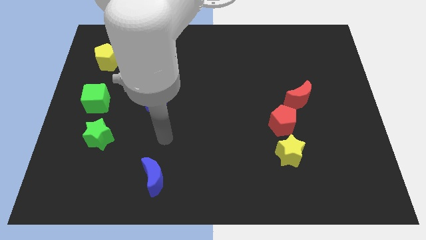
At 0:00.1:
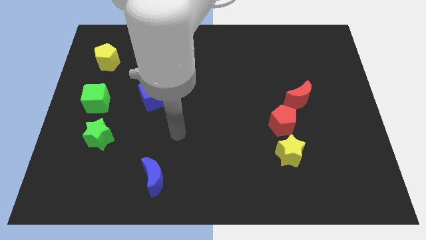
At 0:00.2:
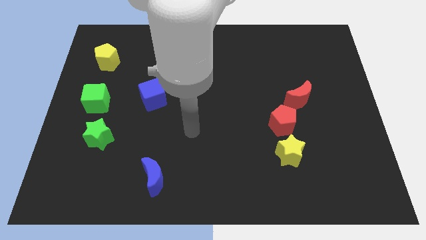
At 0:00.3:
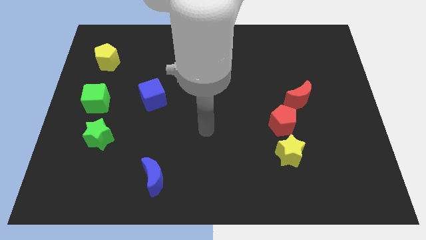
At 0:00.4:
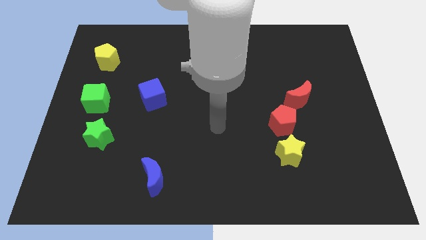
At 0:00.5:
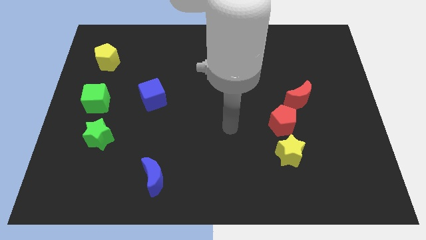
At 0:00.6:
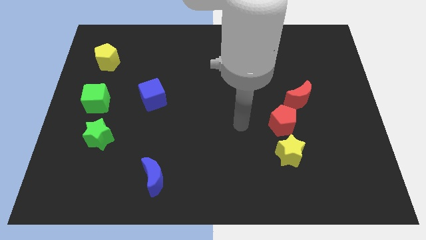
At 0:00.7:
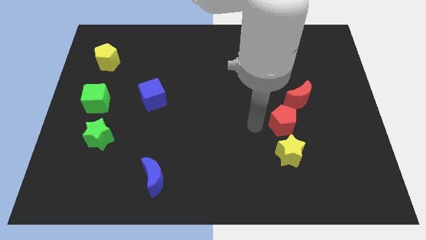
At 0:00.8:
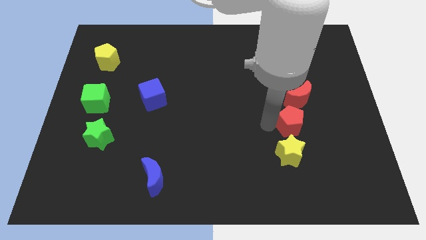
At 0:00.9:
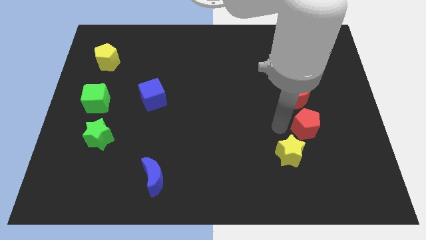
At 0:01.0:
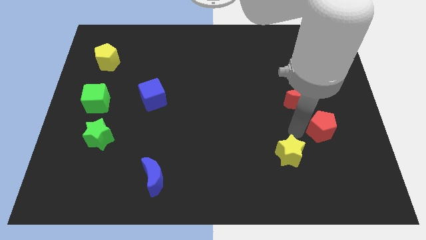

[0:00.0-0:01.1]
separate the yellow star from the red pentagon

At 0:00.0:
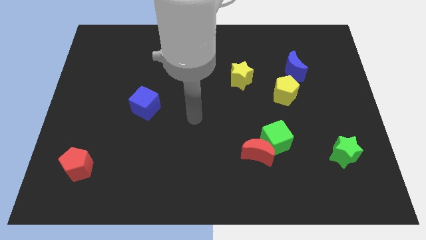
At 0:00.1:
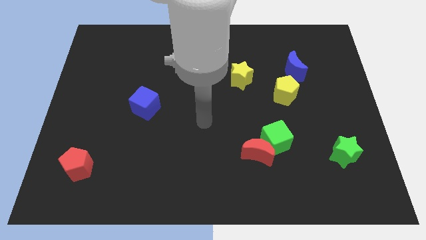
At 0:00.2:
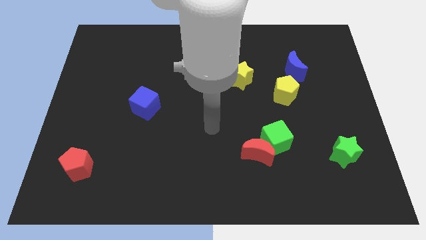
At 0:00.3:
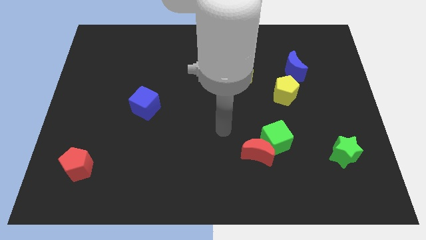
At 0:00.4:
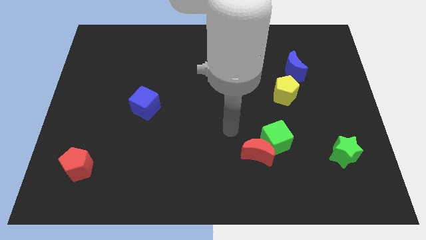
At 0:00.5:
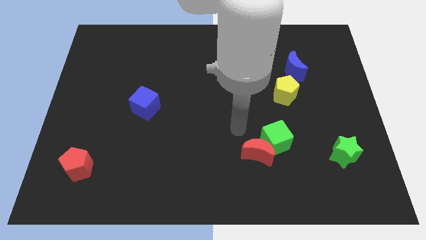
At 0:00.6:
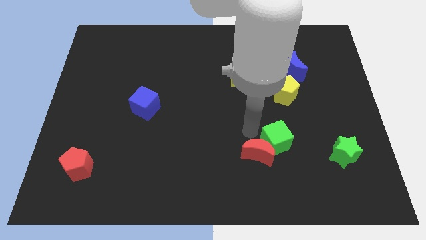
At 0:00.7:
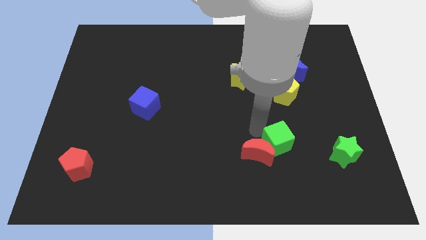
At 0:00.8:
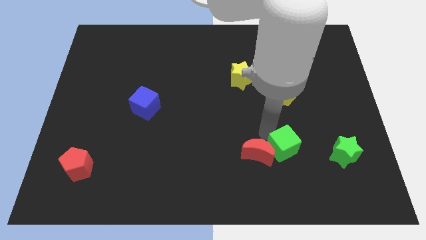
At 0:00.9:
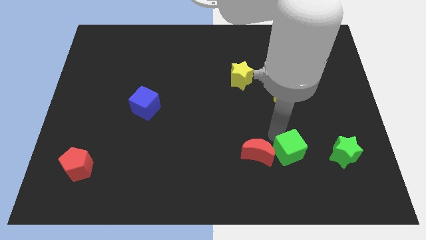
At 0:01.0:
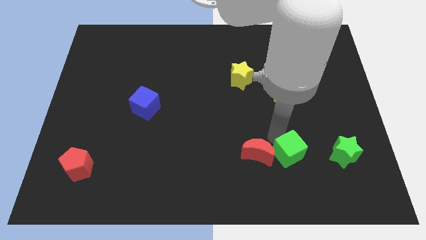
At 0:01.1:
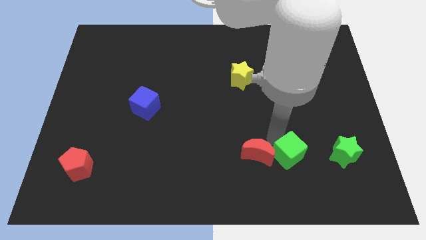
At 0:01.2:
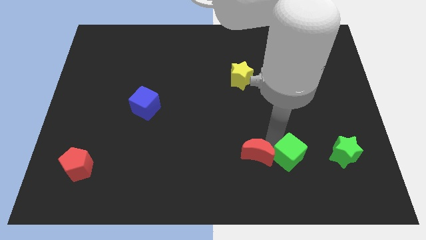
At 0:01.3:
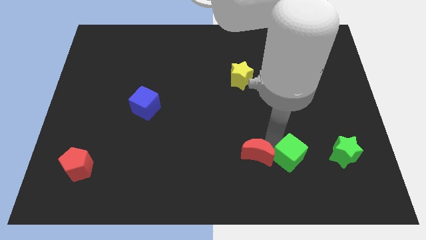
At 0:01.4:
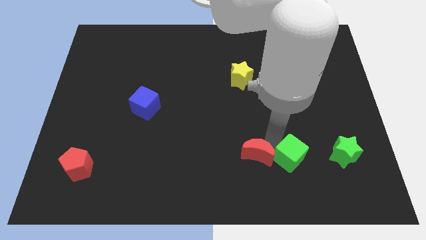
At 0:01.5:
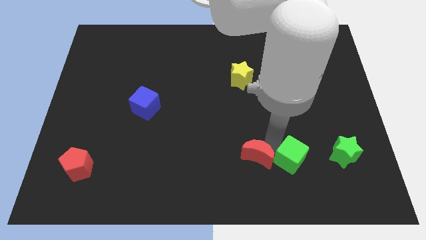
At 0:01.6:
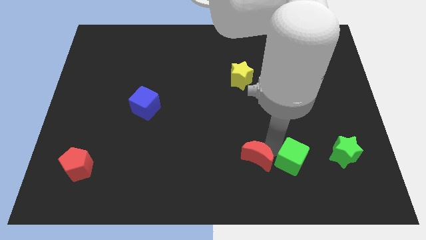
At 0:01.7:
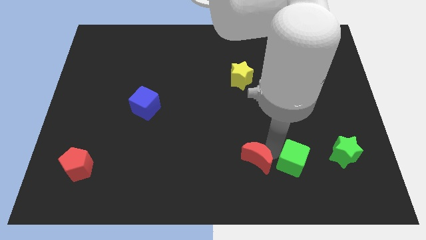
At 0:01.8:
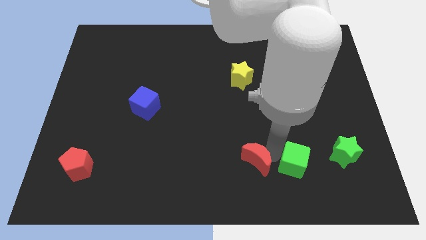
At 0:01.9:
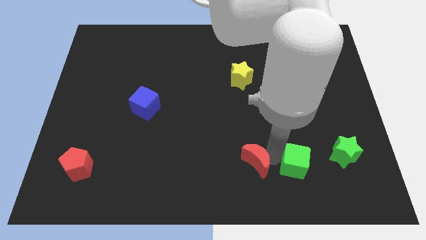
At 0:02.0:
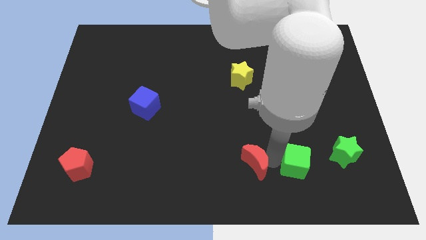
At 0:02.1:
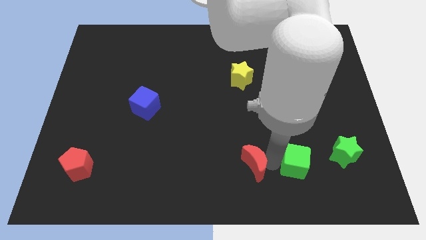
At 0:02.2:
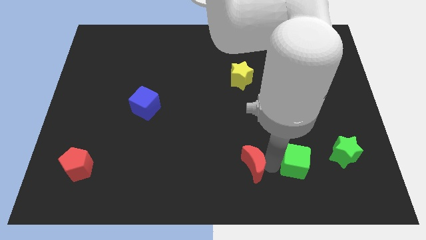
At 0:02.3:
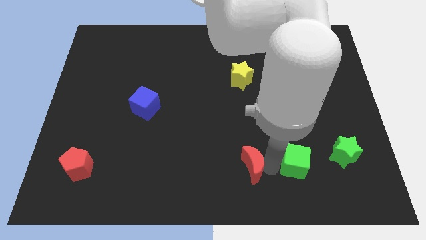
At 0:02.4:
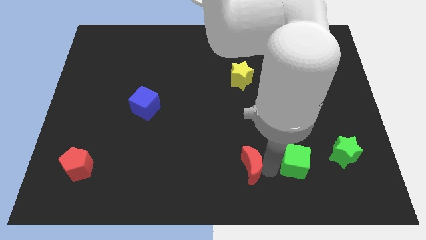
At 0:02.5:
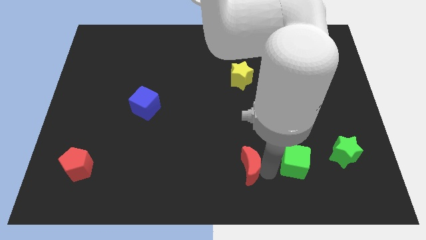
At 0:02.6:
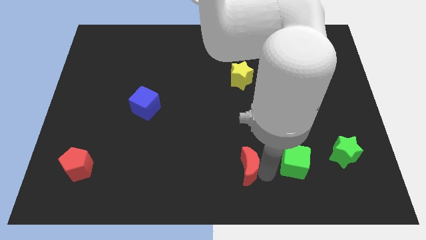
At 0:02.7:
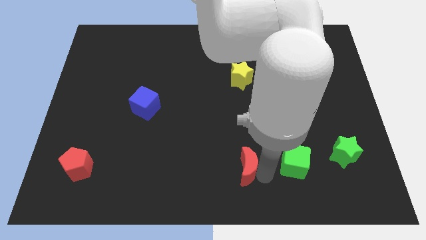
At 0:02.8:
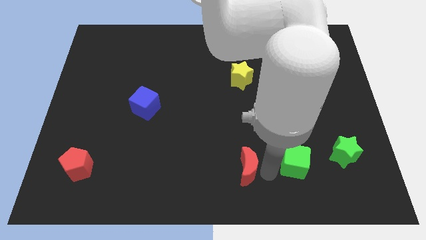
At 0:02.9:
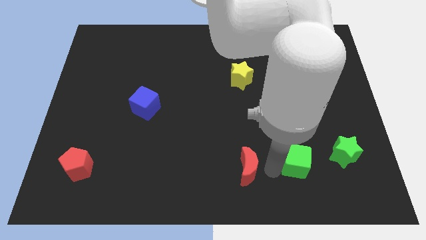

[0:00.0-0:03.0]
separate the red moon from the green cube

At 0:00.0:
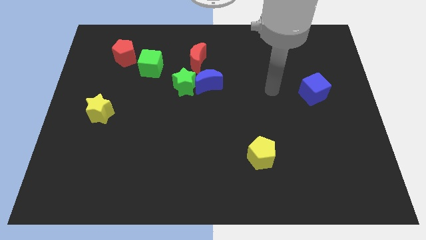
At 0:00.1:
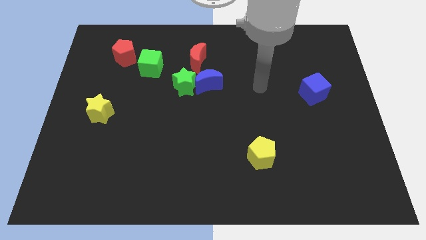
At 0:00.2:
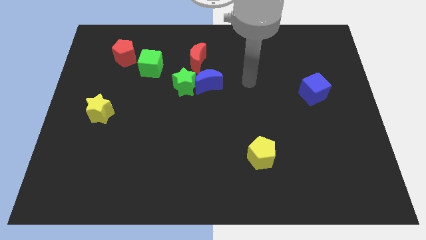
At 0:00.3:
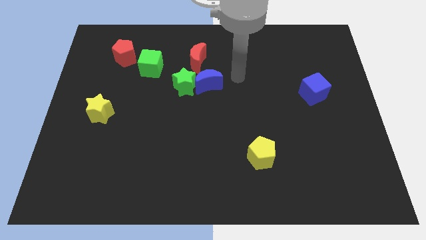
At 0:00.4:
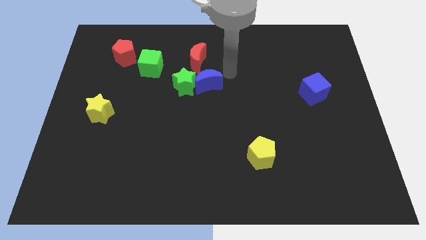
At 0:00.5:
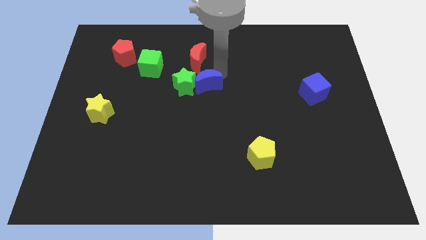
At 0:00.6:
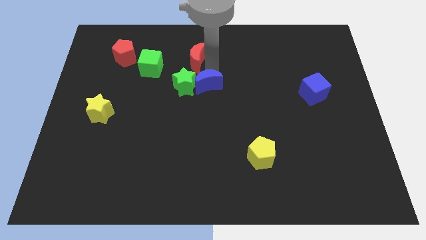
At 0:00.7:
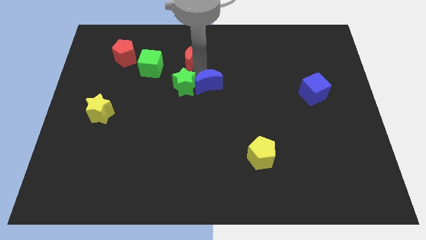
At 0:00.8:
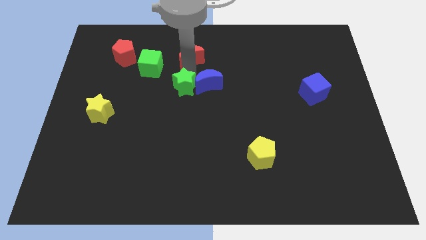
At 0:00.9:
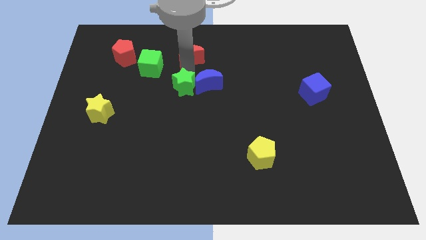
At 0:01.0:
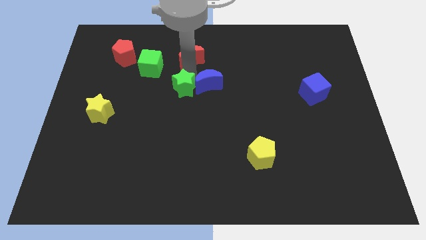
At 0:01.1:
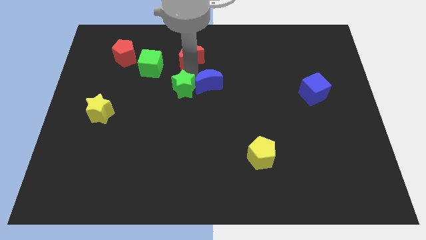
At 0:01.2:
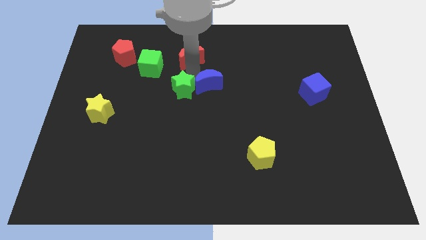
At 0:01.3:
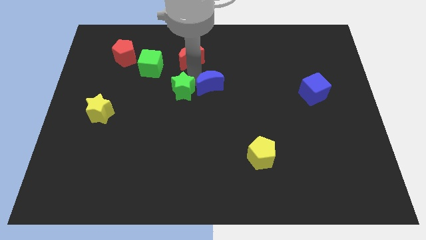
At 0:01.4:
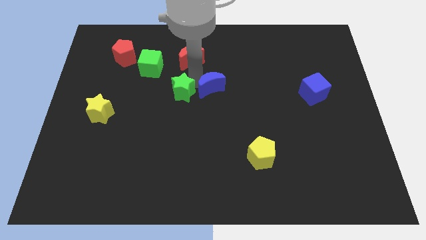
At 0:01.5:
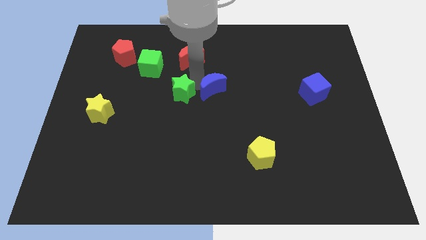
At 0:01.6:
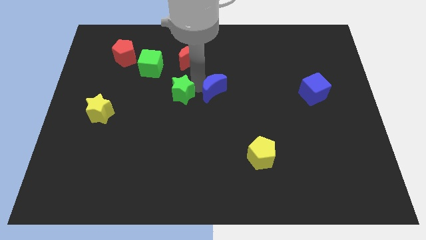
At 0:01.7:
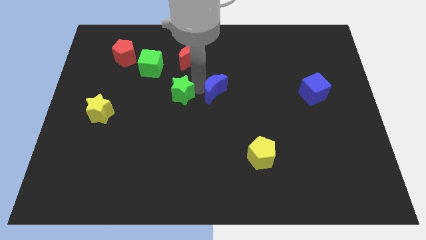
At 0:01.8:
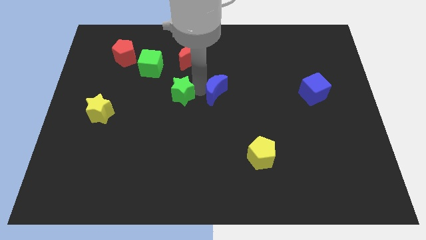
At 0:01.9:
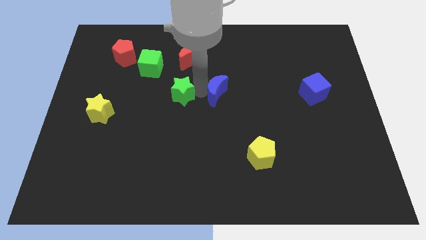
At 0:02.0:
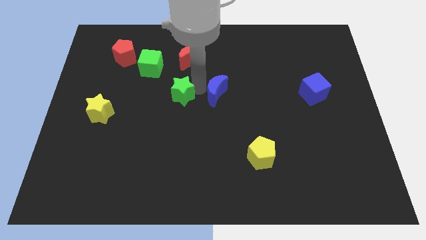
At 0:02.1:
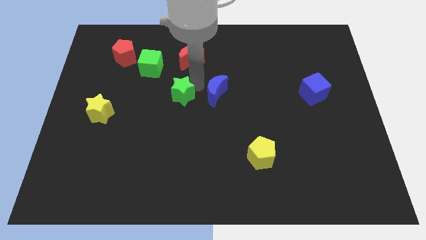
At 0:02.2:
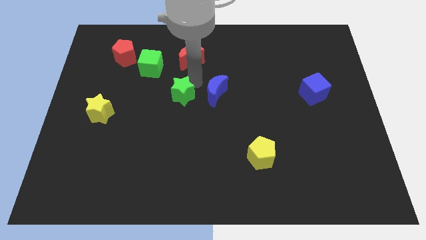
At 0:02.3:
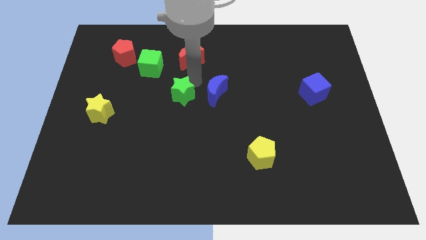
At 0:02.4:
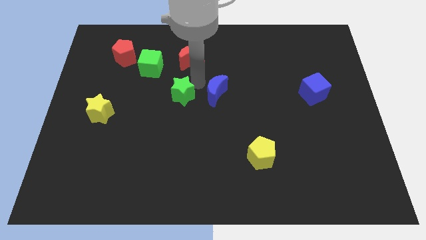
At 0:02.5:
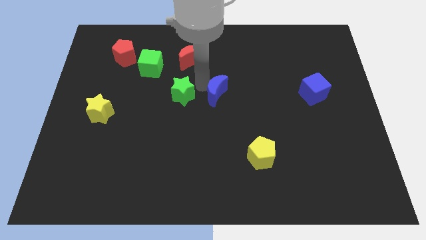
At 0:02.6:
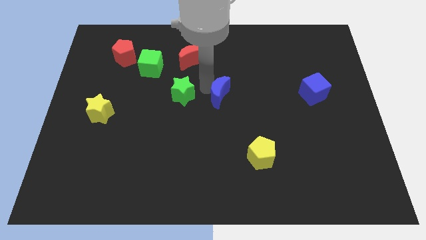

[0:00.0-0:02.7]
pull the blue moon apart from the green star and red moon

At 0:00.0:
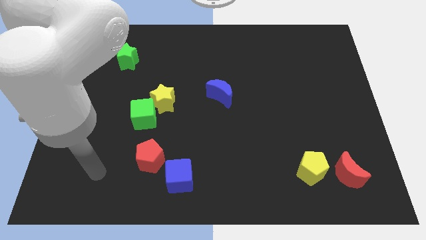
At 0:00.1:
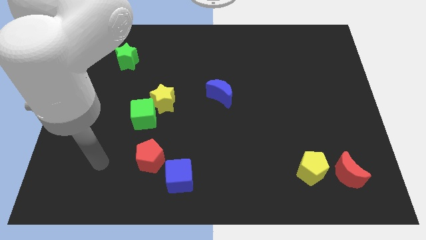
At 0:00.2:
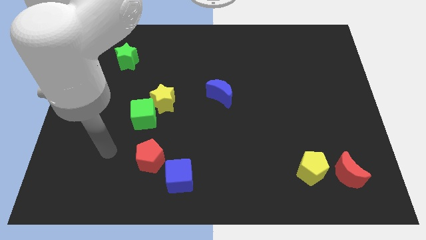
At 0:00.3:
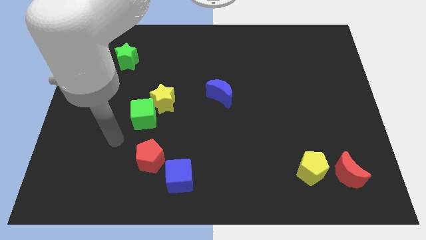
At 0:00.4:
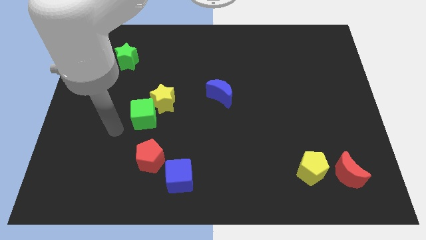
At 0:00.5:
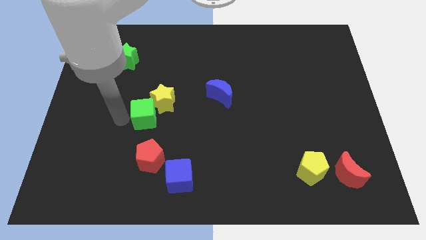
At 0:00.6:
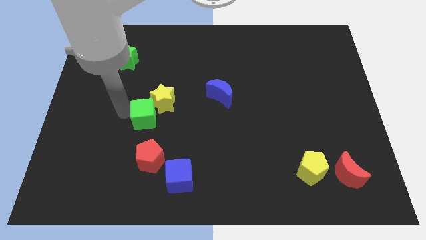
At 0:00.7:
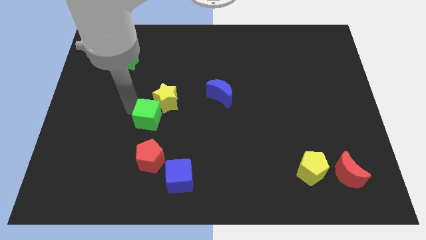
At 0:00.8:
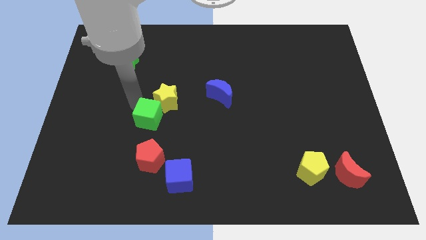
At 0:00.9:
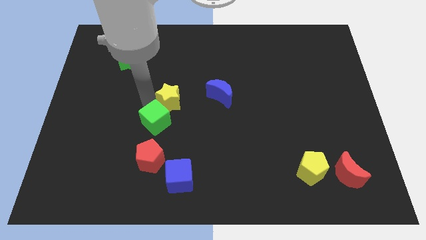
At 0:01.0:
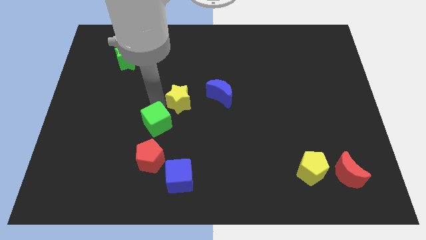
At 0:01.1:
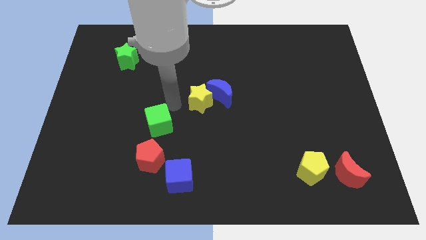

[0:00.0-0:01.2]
pull the green cube apart from the yellow star

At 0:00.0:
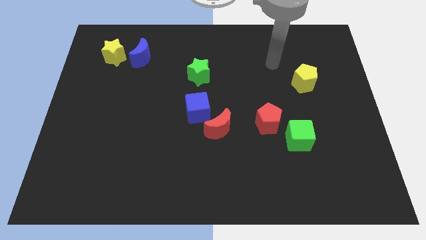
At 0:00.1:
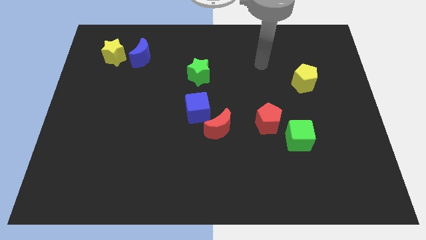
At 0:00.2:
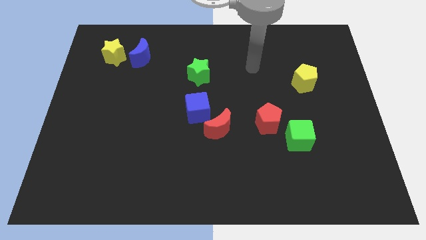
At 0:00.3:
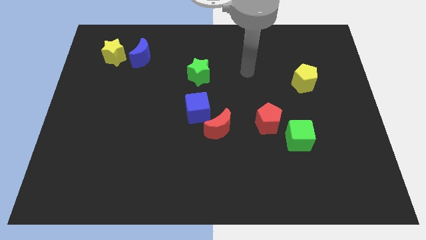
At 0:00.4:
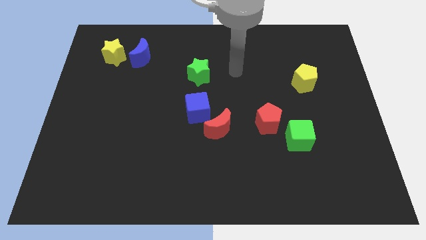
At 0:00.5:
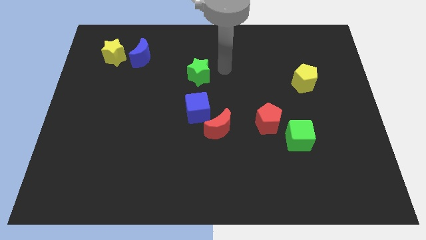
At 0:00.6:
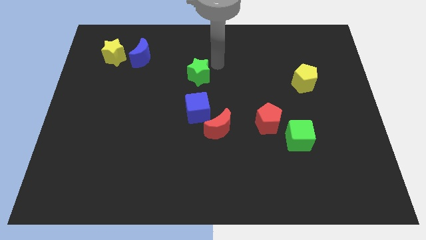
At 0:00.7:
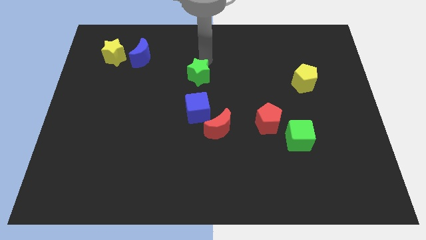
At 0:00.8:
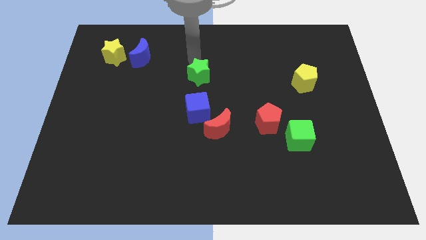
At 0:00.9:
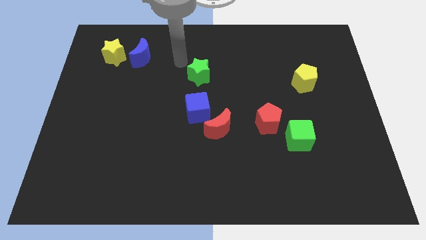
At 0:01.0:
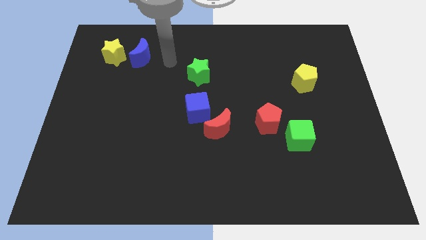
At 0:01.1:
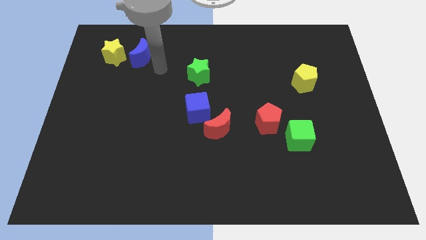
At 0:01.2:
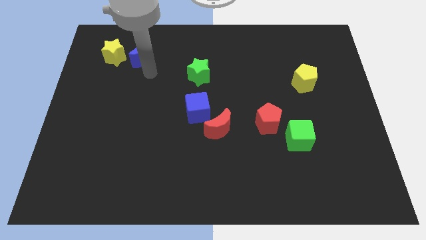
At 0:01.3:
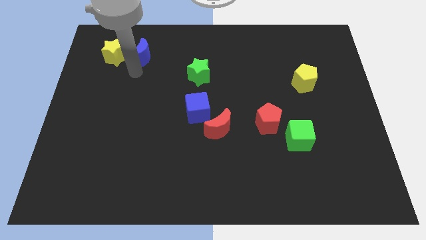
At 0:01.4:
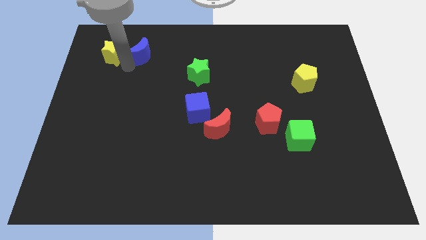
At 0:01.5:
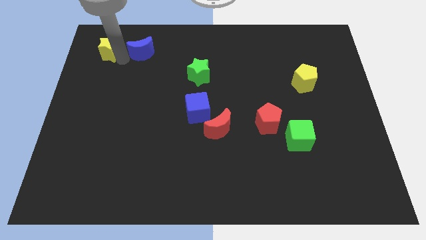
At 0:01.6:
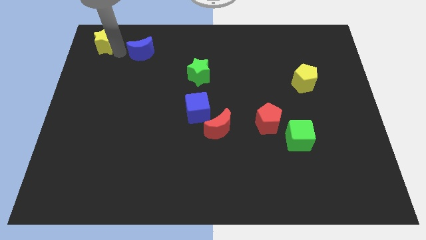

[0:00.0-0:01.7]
move the blue moon away from the yellow star
